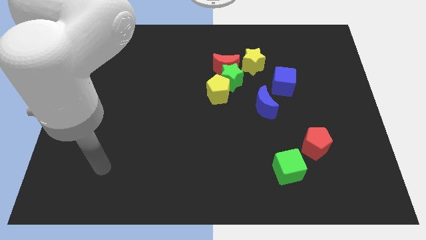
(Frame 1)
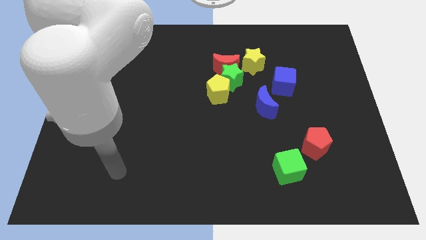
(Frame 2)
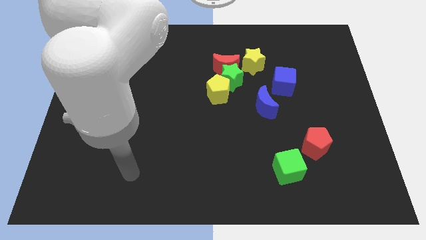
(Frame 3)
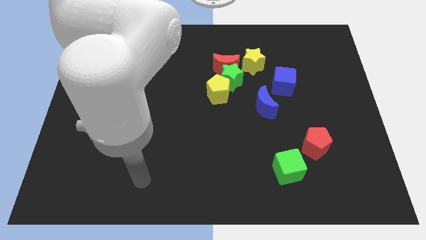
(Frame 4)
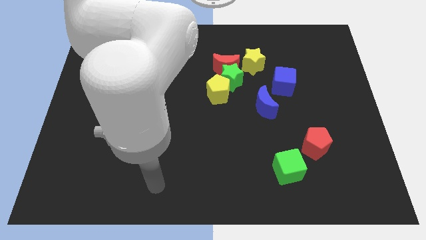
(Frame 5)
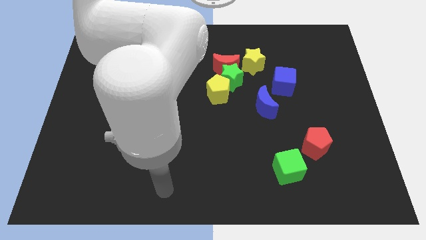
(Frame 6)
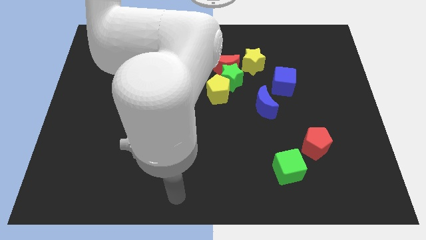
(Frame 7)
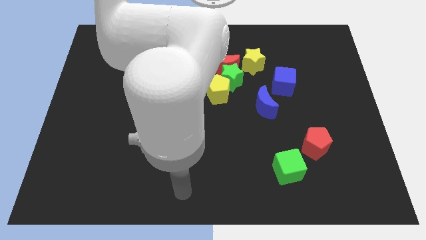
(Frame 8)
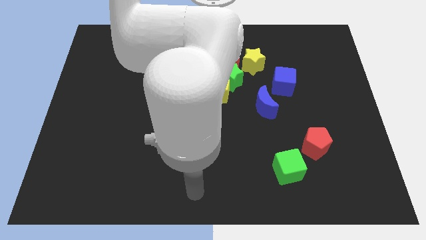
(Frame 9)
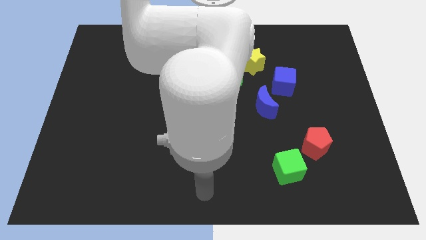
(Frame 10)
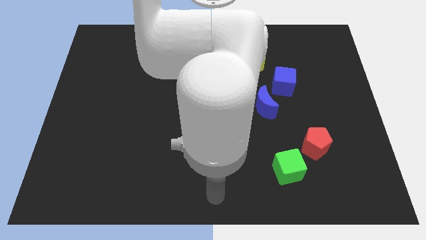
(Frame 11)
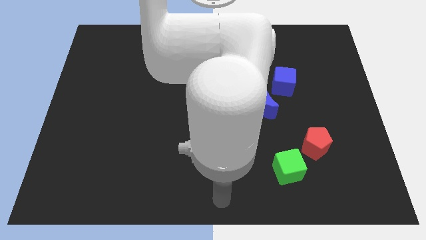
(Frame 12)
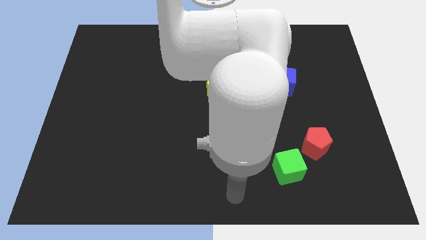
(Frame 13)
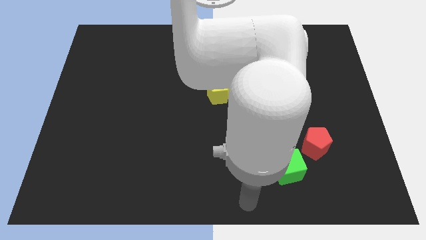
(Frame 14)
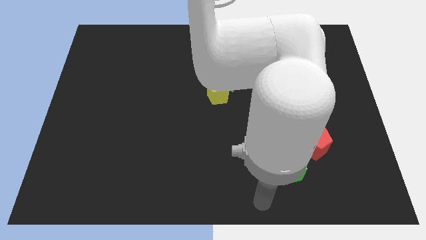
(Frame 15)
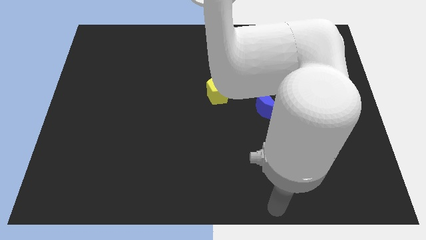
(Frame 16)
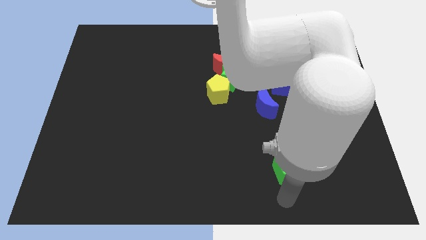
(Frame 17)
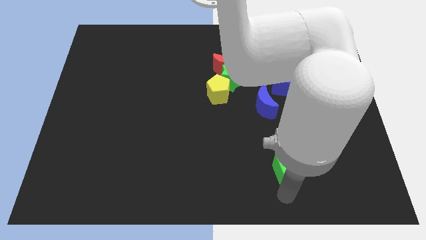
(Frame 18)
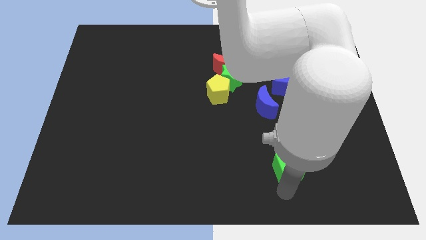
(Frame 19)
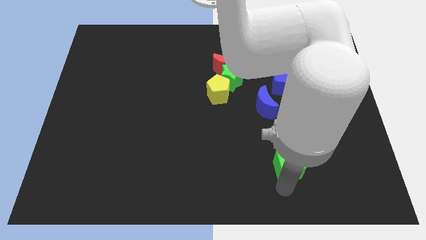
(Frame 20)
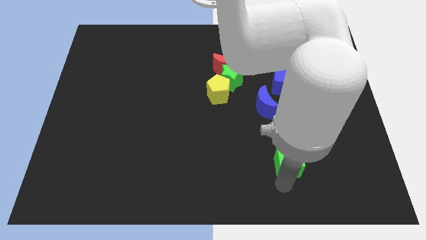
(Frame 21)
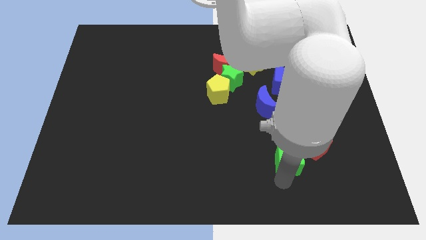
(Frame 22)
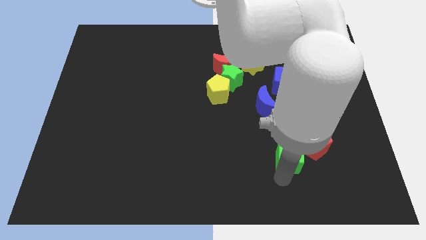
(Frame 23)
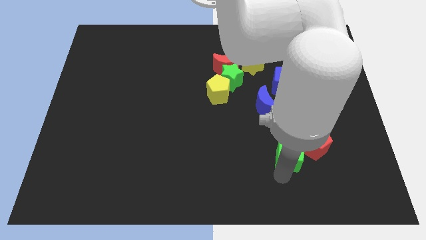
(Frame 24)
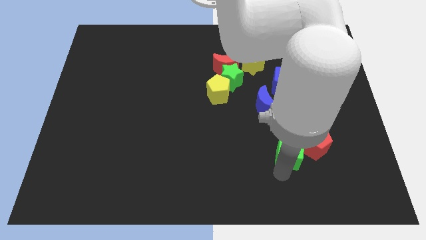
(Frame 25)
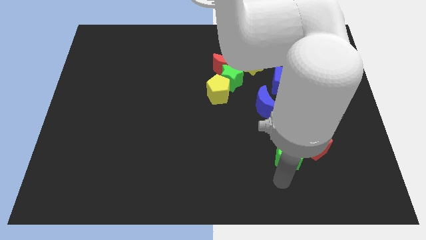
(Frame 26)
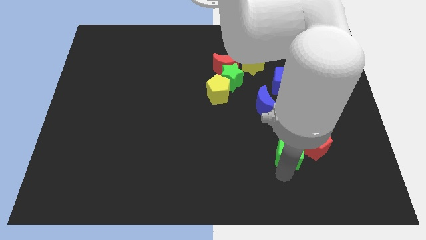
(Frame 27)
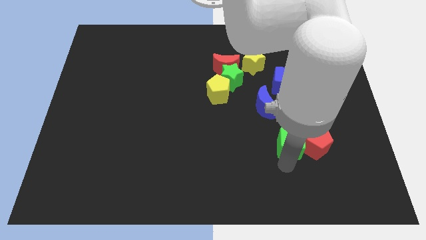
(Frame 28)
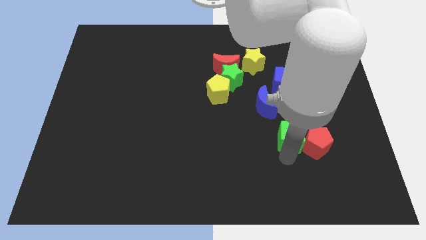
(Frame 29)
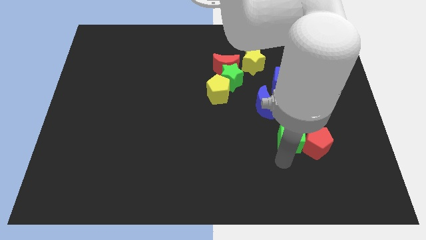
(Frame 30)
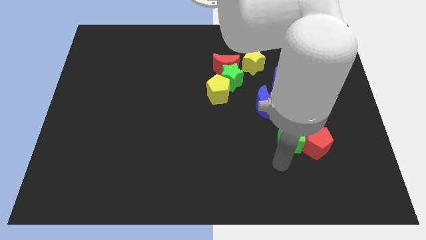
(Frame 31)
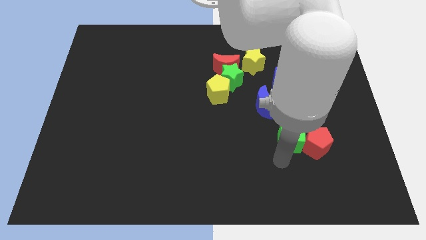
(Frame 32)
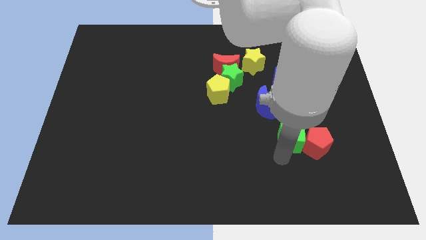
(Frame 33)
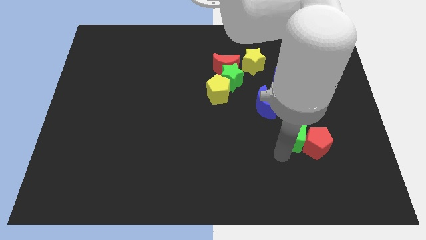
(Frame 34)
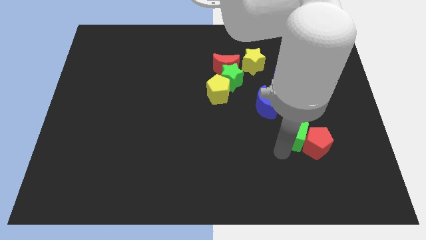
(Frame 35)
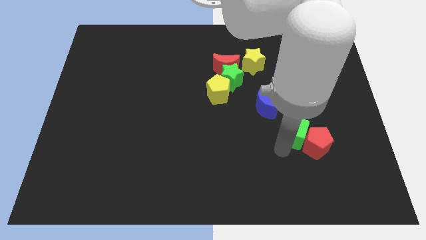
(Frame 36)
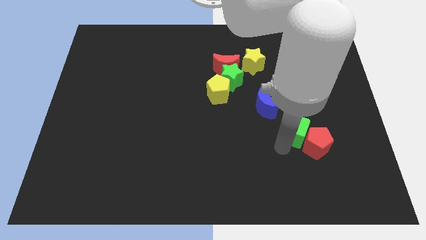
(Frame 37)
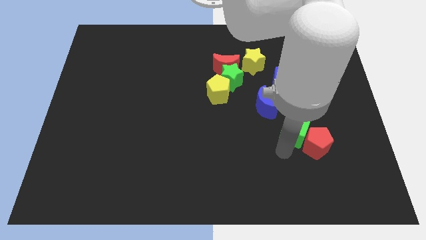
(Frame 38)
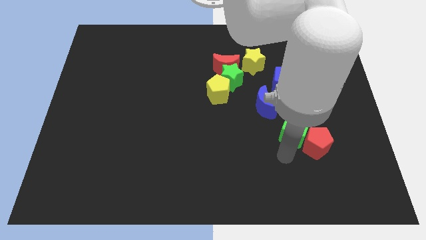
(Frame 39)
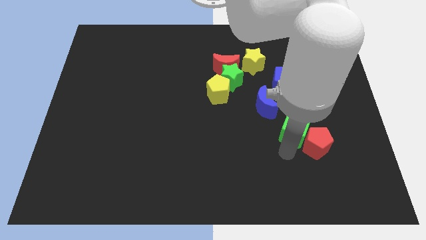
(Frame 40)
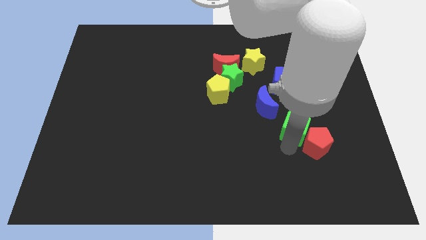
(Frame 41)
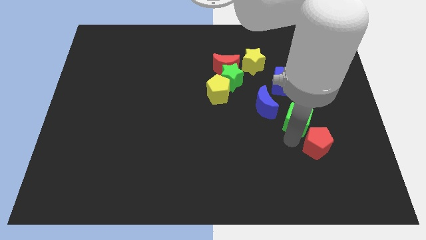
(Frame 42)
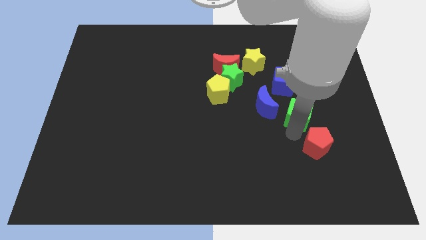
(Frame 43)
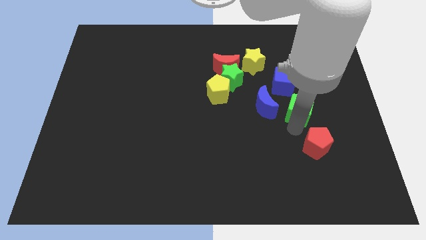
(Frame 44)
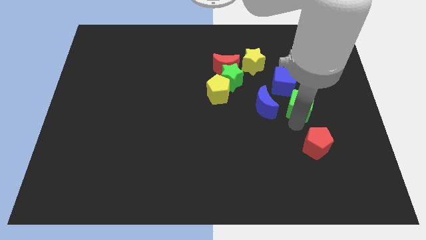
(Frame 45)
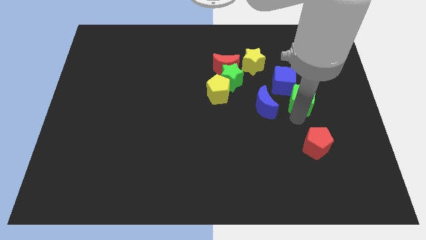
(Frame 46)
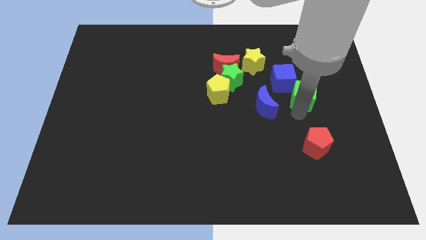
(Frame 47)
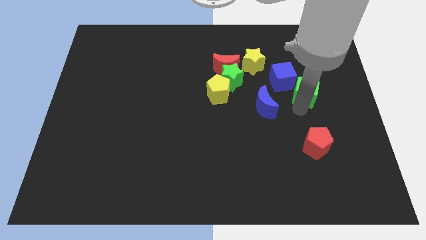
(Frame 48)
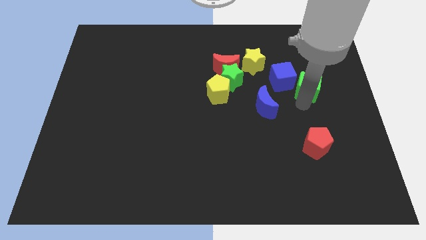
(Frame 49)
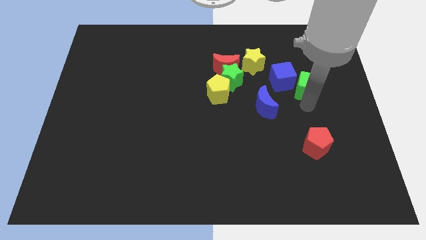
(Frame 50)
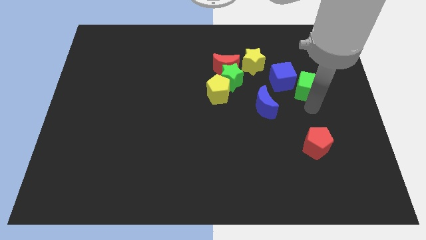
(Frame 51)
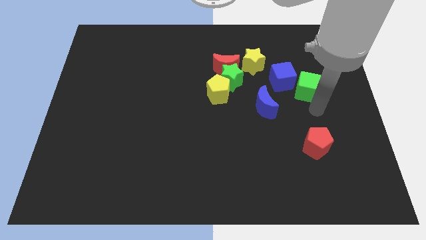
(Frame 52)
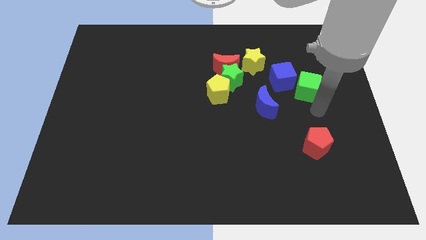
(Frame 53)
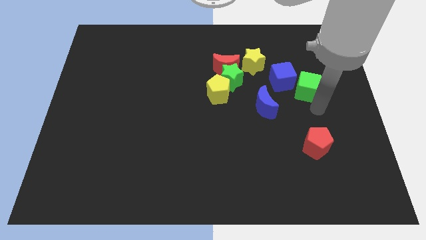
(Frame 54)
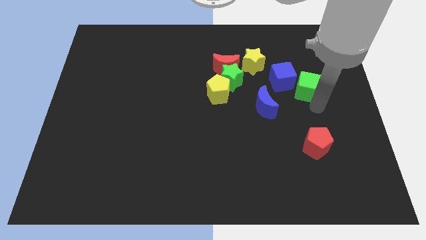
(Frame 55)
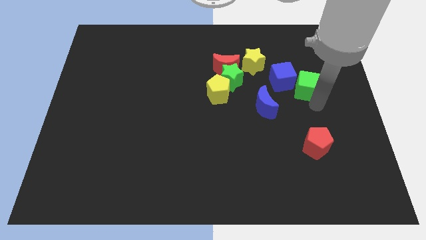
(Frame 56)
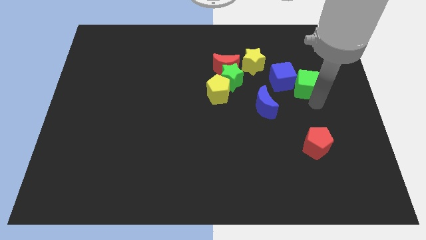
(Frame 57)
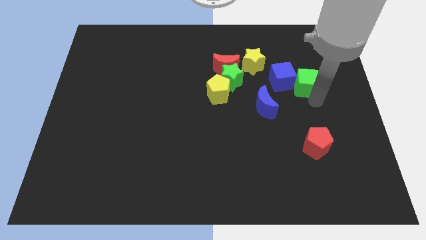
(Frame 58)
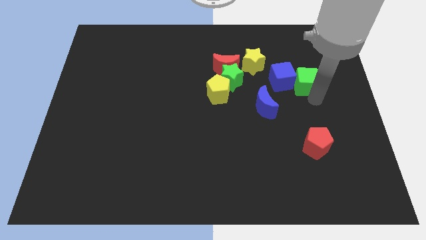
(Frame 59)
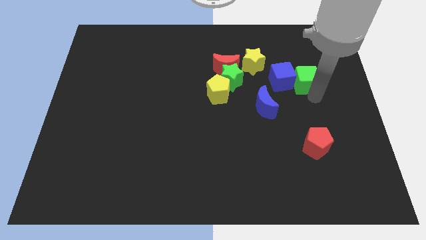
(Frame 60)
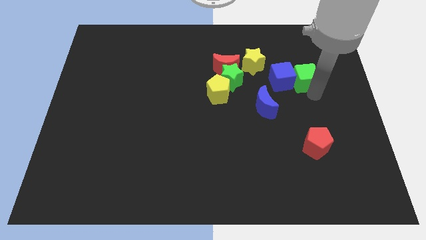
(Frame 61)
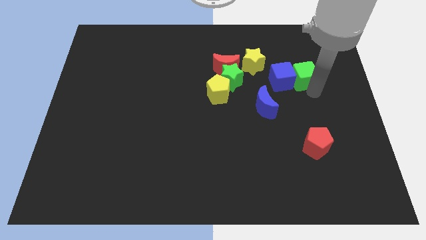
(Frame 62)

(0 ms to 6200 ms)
put the green cube to the right of the yellow star
